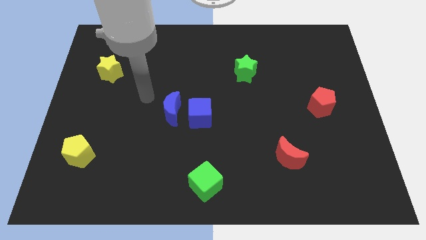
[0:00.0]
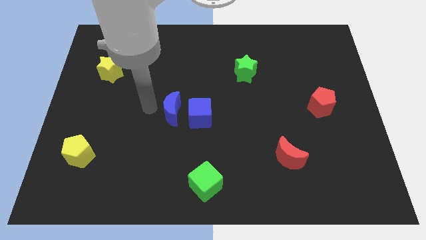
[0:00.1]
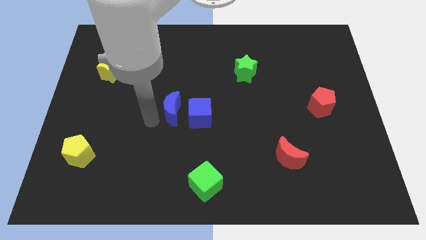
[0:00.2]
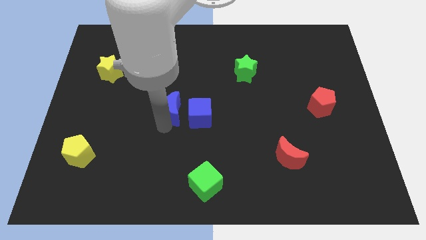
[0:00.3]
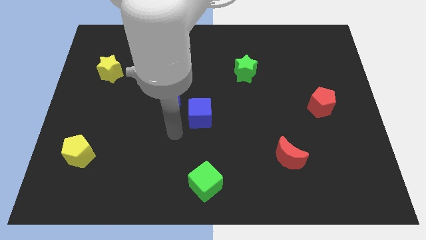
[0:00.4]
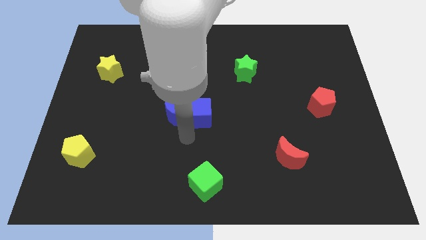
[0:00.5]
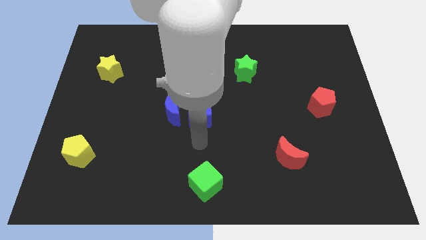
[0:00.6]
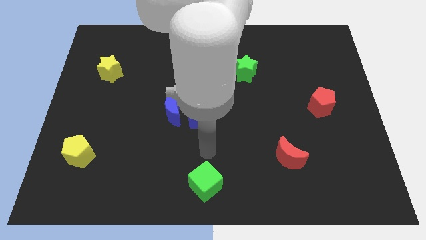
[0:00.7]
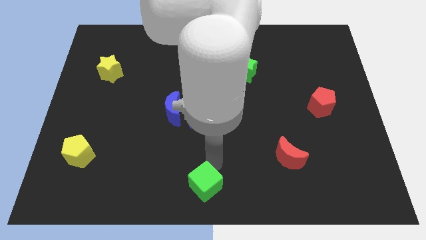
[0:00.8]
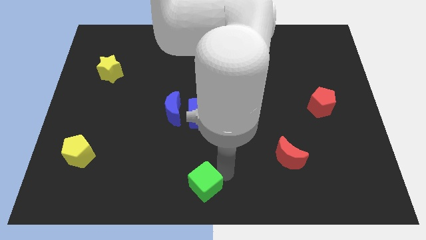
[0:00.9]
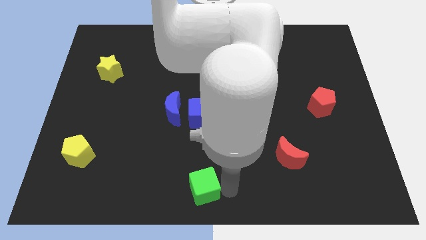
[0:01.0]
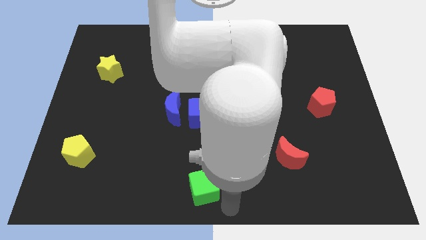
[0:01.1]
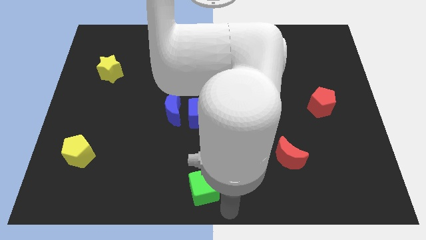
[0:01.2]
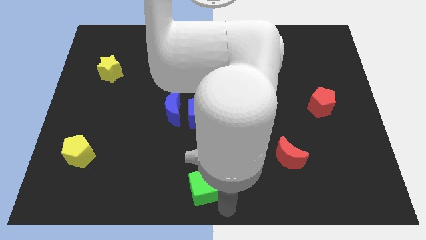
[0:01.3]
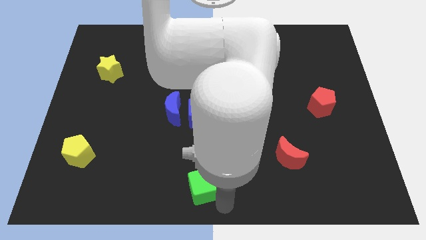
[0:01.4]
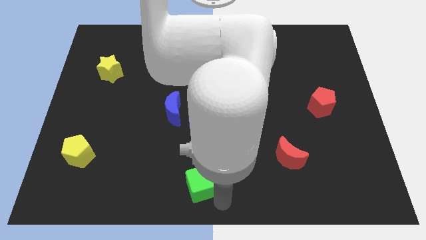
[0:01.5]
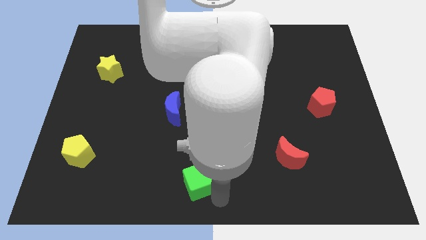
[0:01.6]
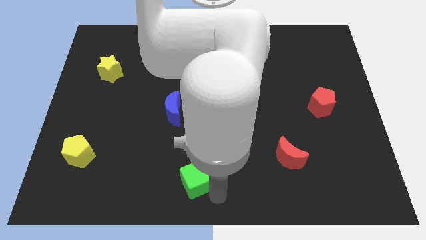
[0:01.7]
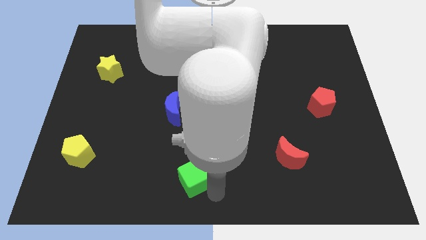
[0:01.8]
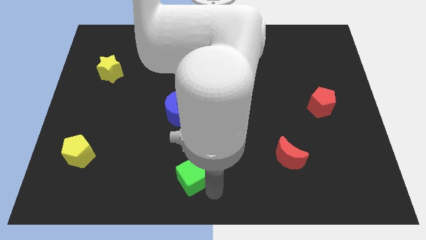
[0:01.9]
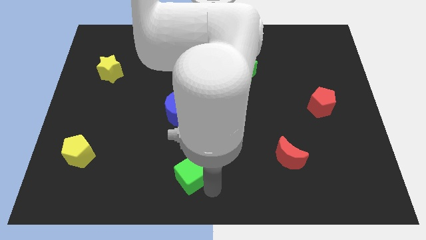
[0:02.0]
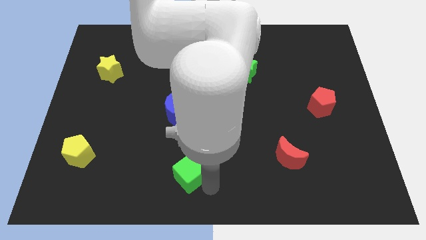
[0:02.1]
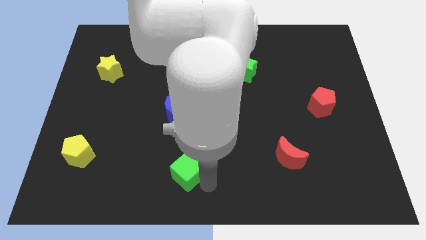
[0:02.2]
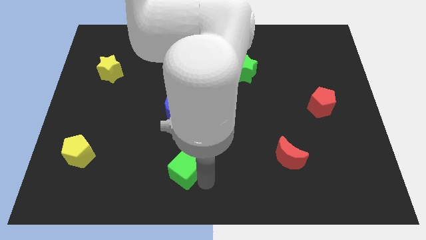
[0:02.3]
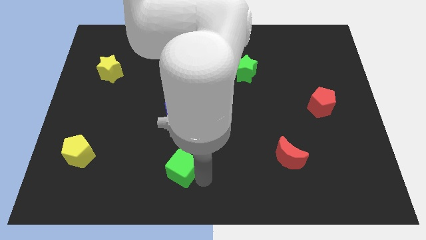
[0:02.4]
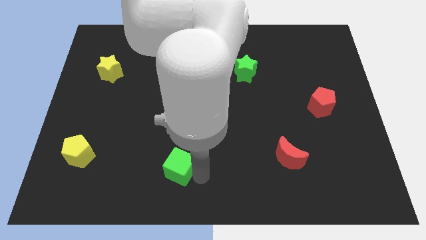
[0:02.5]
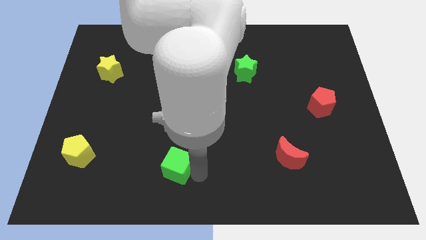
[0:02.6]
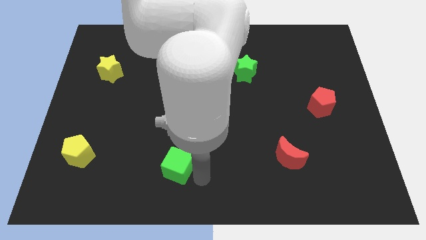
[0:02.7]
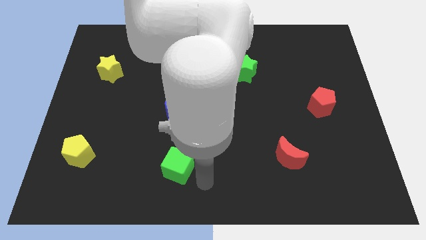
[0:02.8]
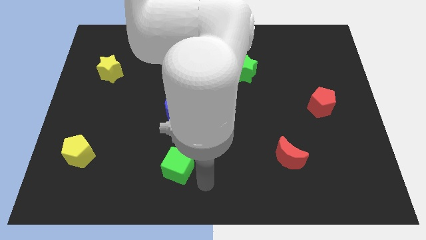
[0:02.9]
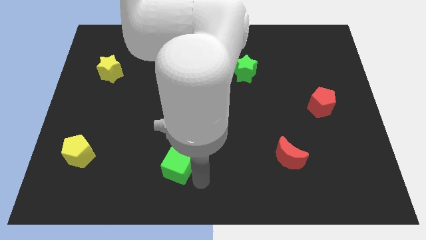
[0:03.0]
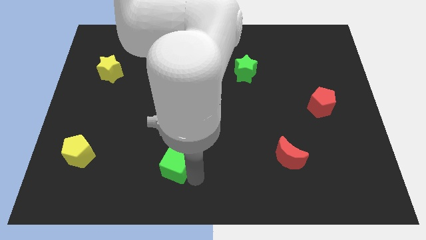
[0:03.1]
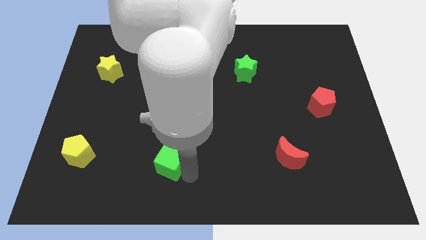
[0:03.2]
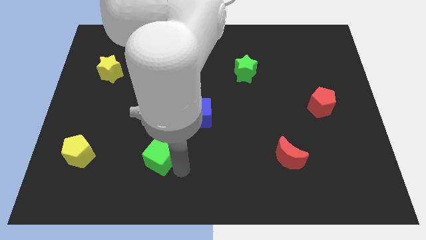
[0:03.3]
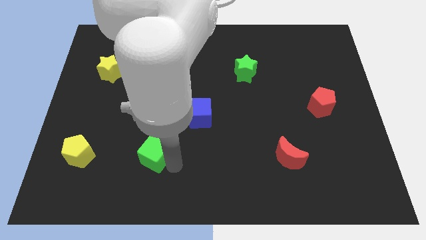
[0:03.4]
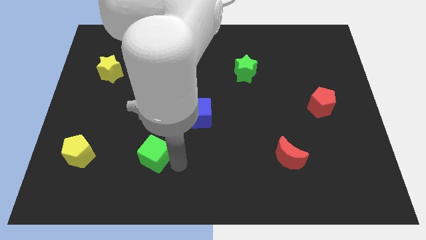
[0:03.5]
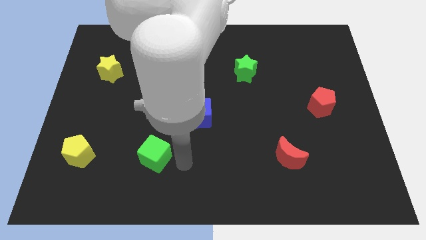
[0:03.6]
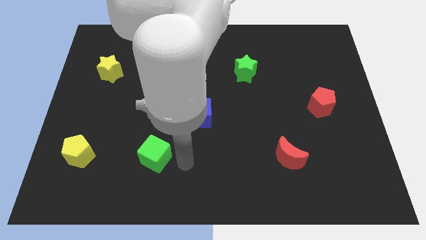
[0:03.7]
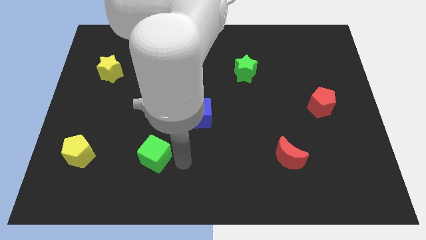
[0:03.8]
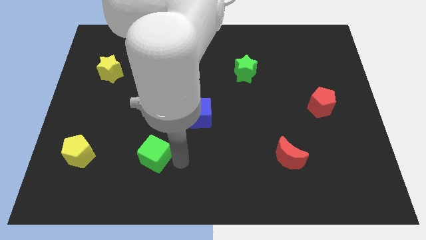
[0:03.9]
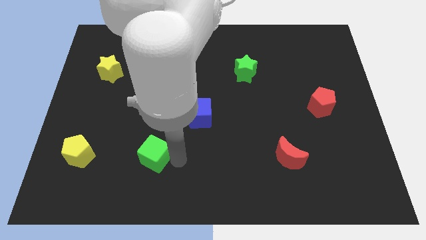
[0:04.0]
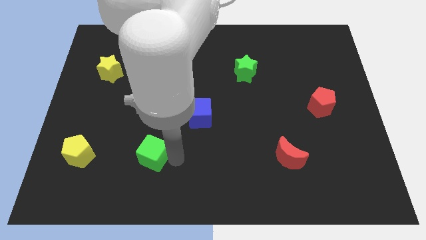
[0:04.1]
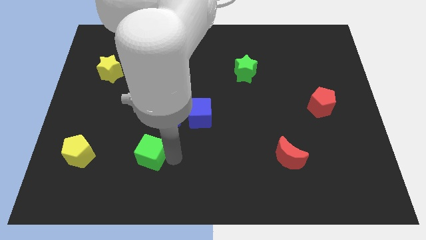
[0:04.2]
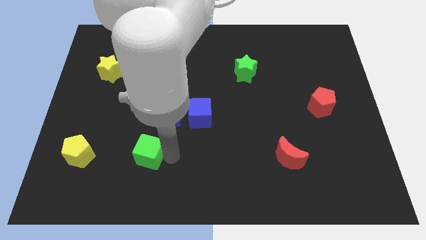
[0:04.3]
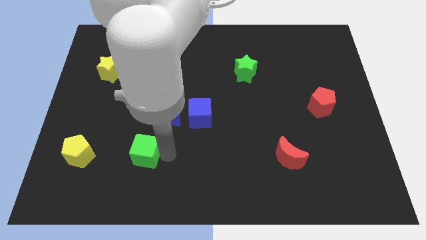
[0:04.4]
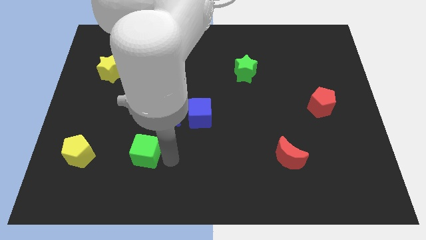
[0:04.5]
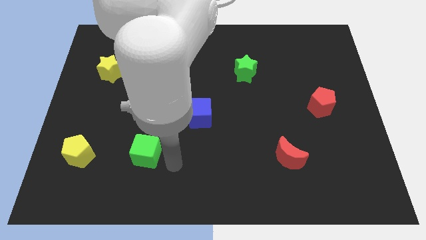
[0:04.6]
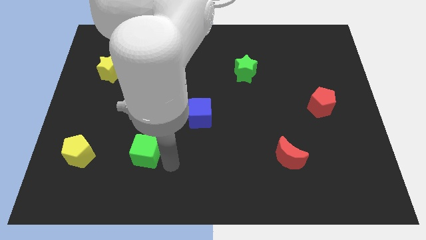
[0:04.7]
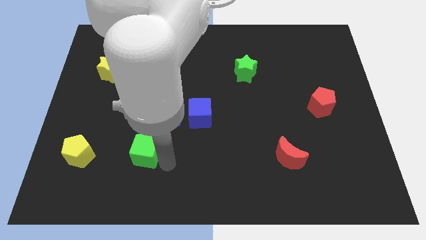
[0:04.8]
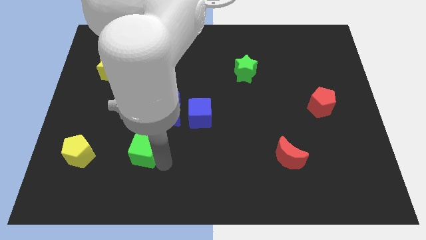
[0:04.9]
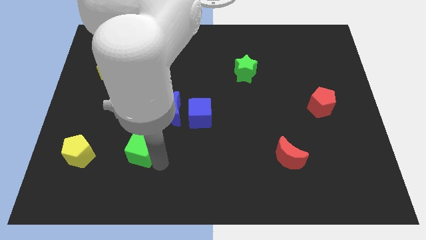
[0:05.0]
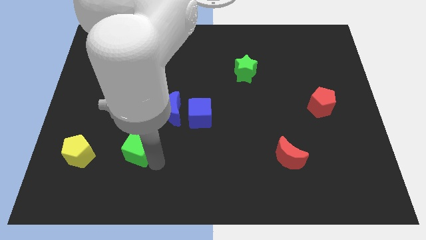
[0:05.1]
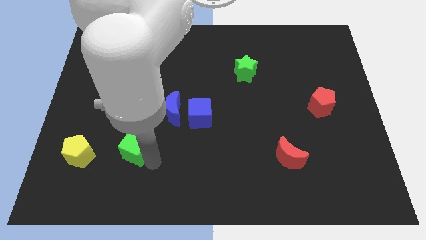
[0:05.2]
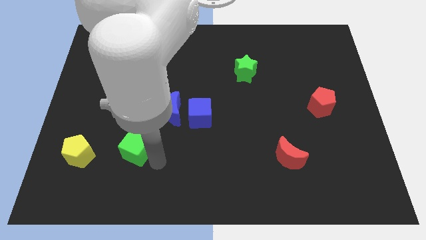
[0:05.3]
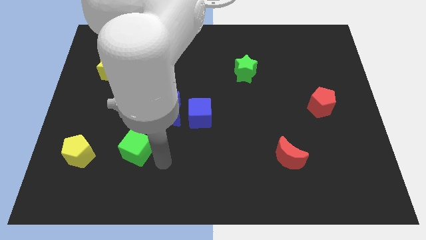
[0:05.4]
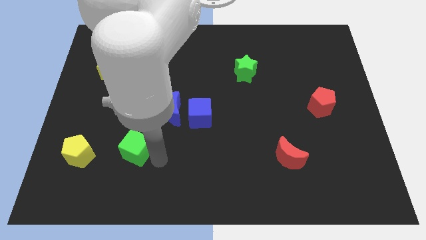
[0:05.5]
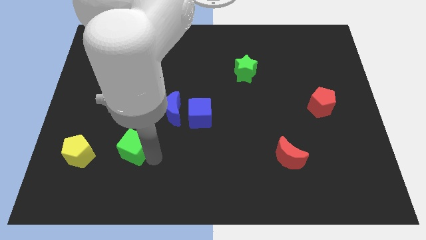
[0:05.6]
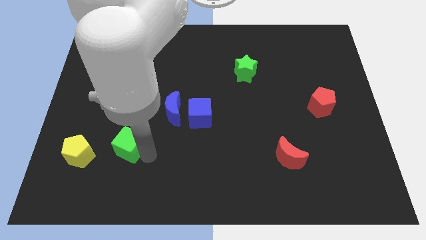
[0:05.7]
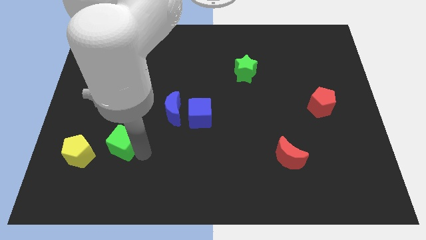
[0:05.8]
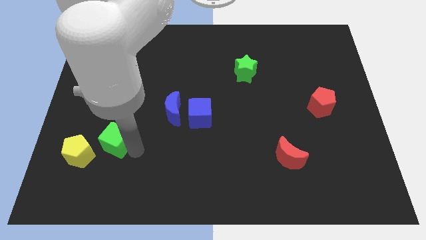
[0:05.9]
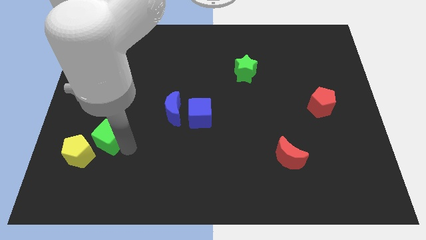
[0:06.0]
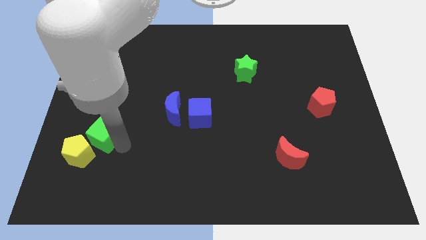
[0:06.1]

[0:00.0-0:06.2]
put the green cube to the top of the yellow pentagon
